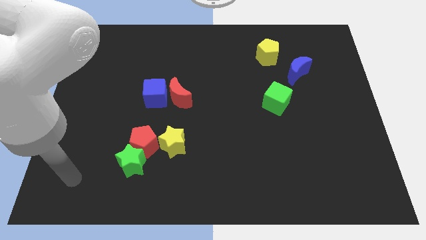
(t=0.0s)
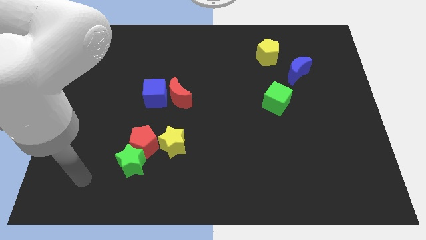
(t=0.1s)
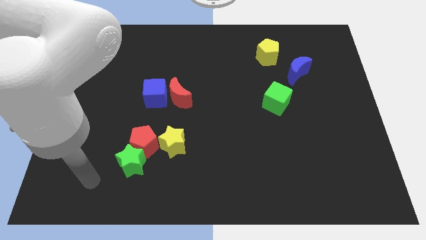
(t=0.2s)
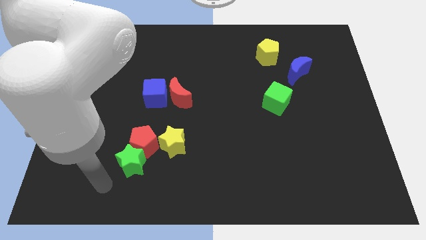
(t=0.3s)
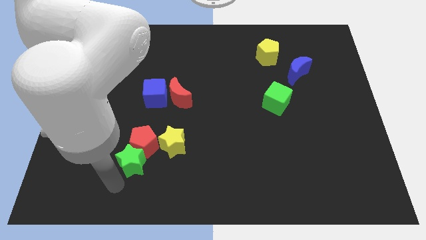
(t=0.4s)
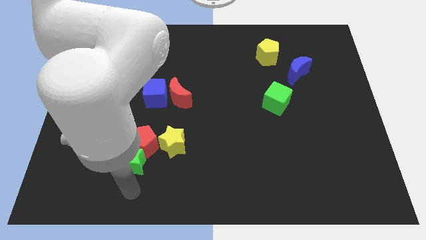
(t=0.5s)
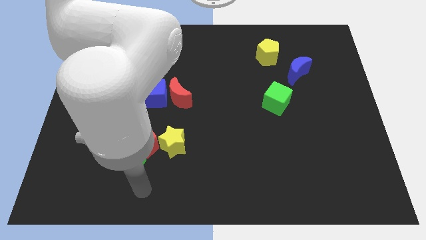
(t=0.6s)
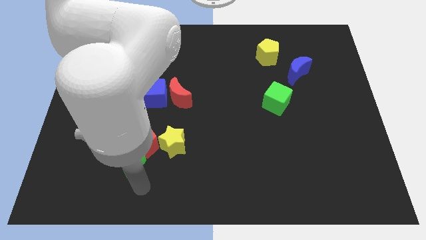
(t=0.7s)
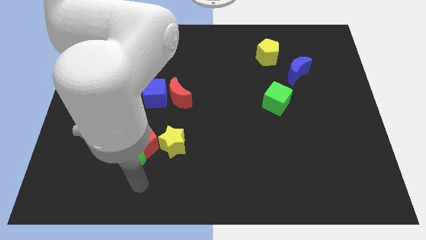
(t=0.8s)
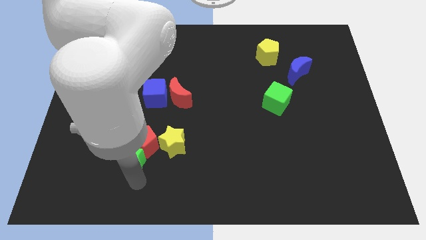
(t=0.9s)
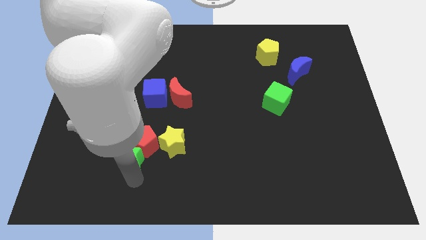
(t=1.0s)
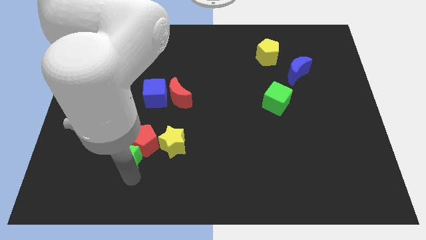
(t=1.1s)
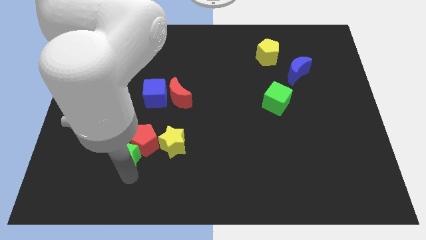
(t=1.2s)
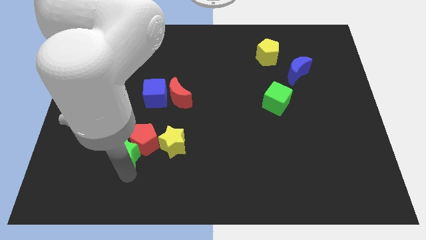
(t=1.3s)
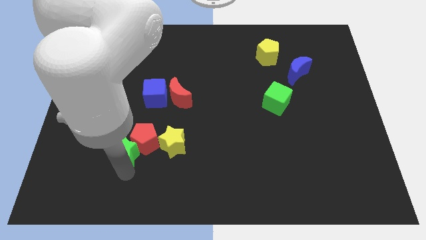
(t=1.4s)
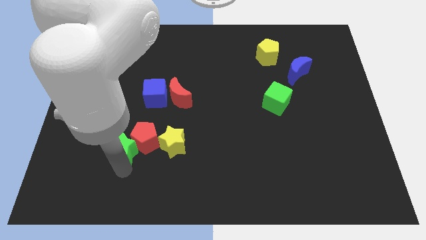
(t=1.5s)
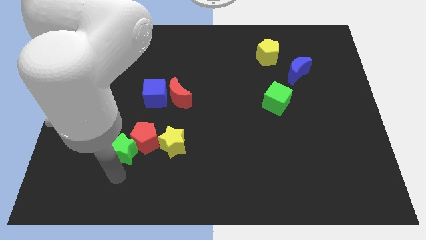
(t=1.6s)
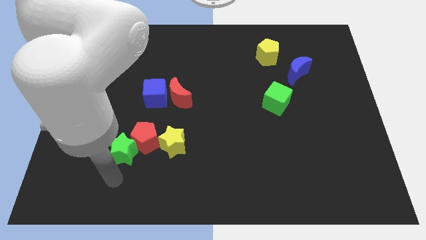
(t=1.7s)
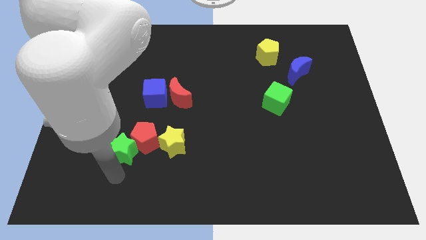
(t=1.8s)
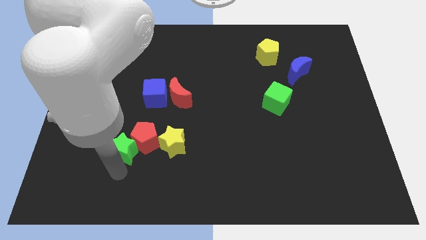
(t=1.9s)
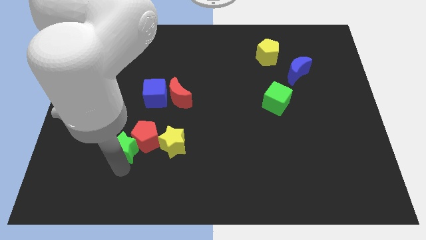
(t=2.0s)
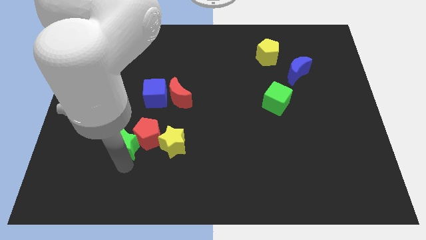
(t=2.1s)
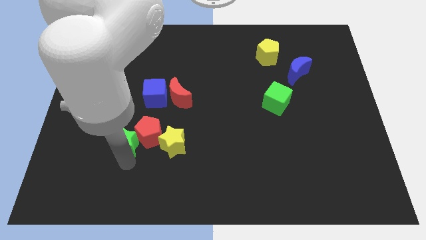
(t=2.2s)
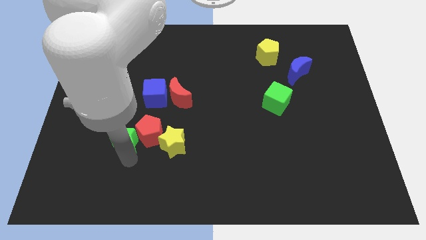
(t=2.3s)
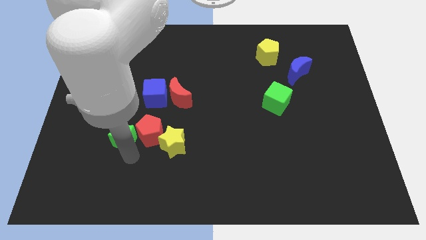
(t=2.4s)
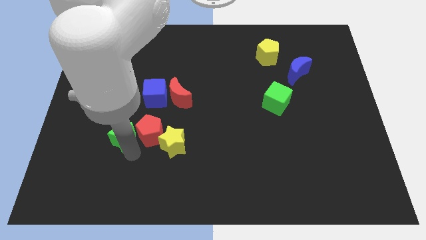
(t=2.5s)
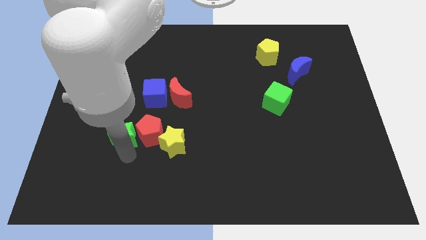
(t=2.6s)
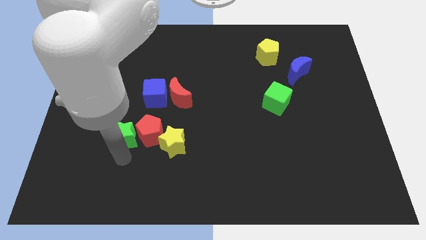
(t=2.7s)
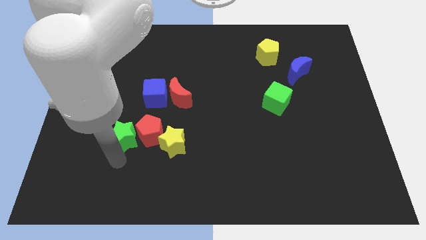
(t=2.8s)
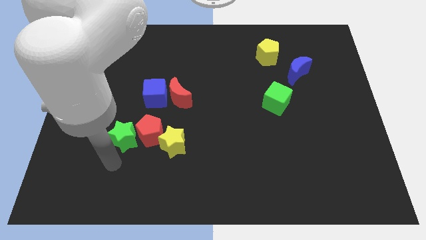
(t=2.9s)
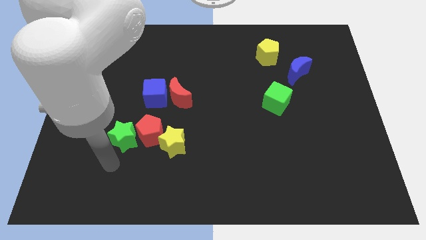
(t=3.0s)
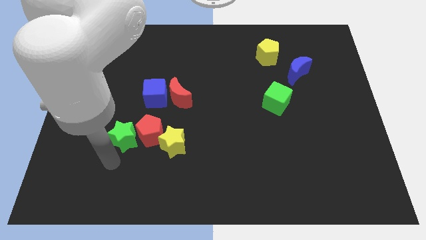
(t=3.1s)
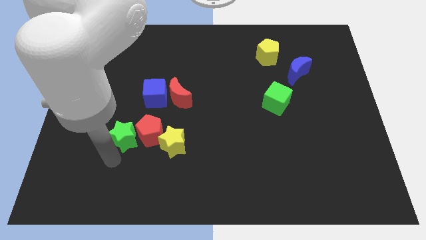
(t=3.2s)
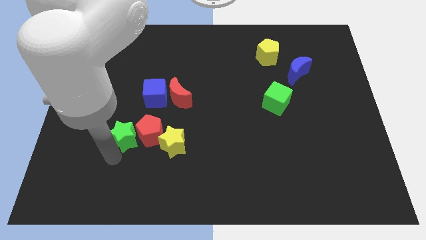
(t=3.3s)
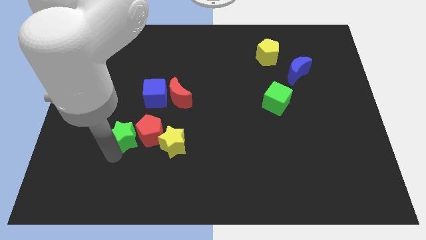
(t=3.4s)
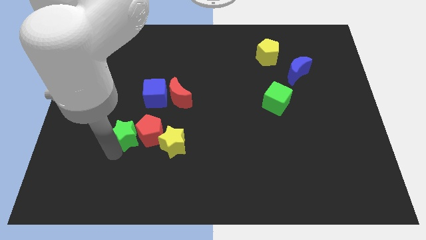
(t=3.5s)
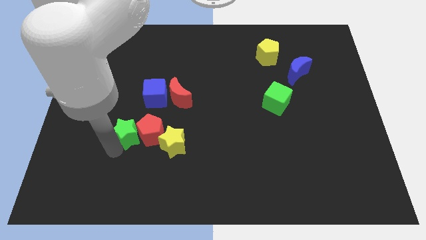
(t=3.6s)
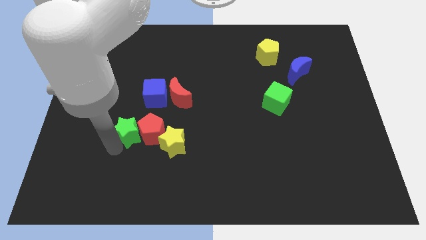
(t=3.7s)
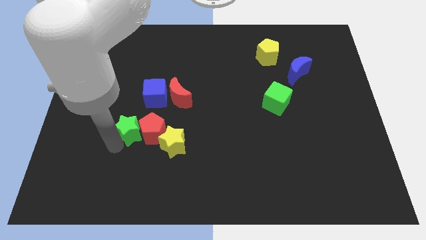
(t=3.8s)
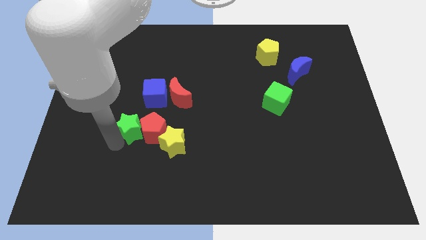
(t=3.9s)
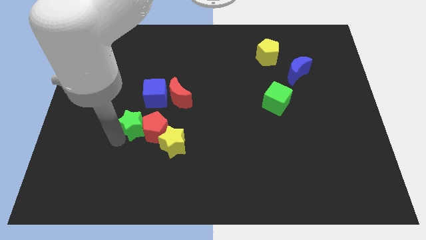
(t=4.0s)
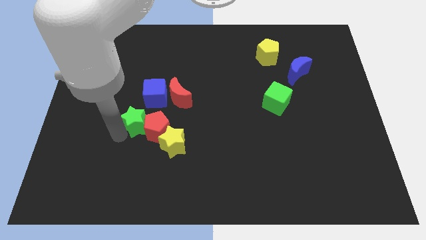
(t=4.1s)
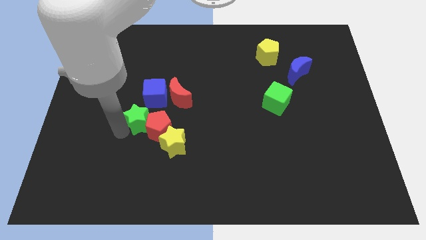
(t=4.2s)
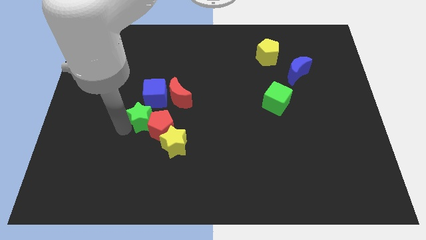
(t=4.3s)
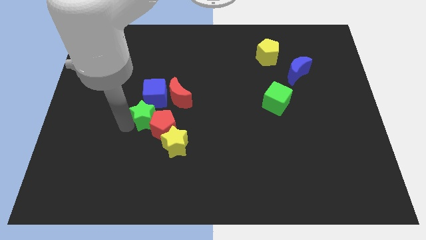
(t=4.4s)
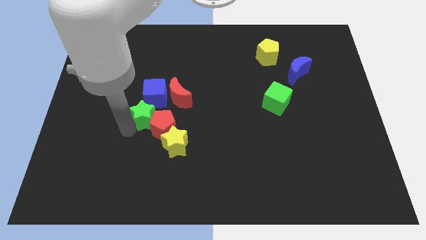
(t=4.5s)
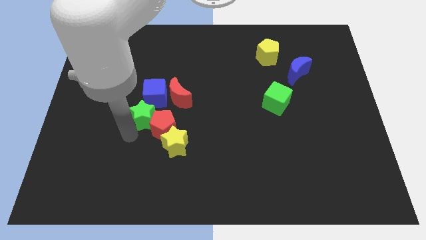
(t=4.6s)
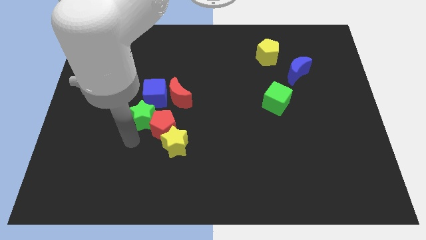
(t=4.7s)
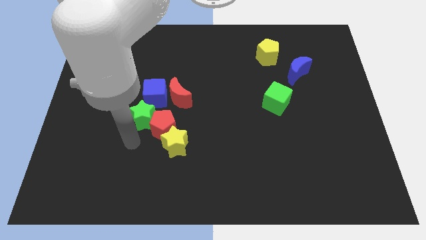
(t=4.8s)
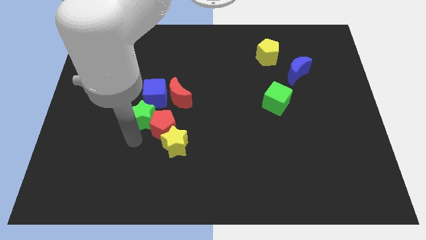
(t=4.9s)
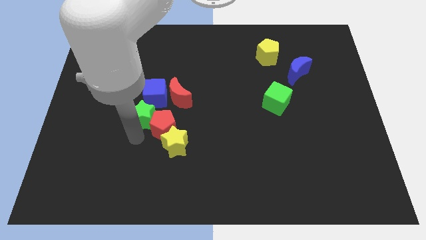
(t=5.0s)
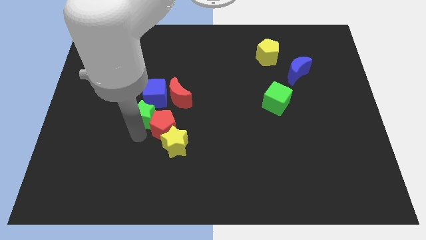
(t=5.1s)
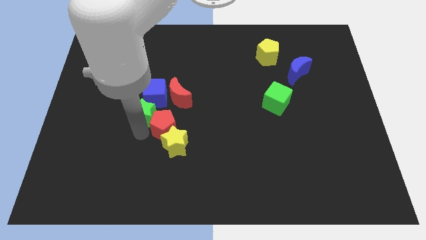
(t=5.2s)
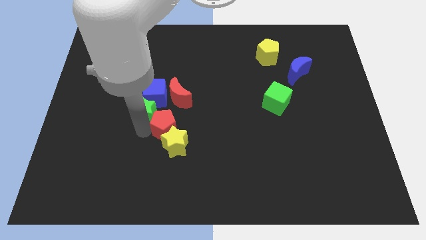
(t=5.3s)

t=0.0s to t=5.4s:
put the green star to the blue cube

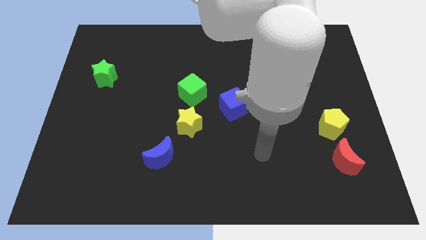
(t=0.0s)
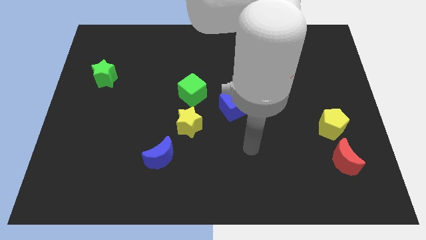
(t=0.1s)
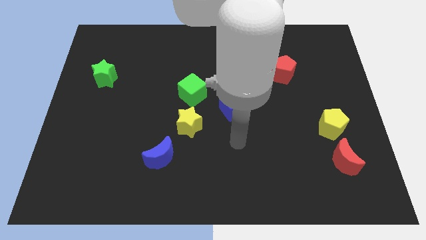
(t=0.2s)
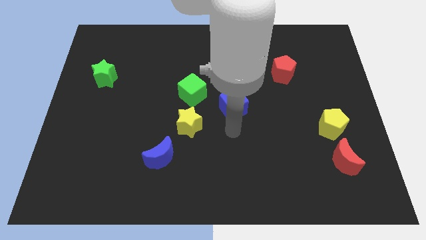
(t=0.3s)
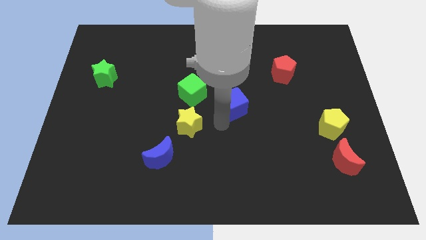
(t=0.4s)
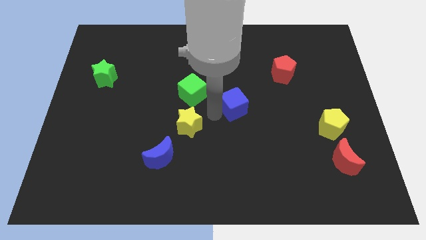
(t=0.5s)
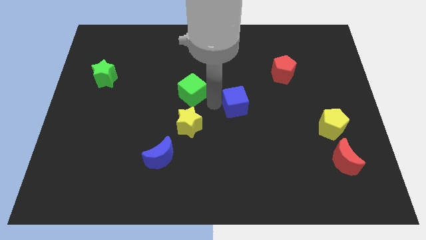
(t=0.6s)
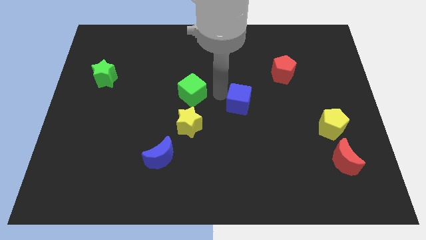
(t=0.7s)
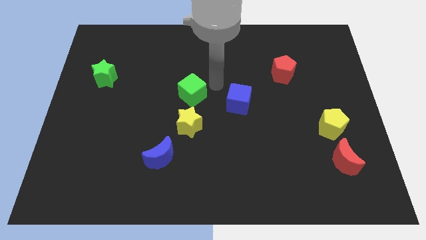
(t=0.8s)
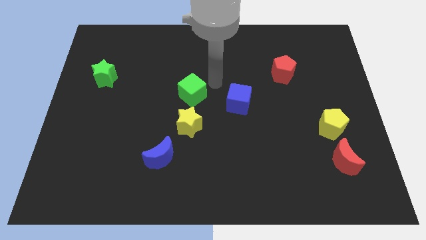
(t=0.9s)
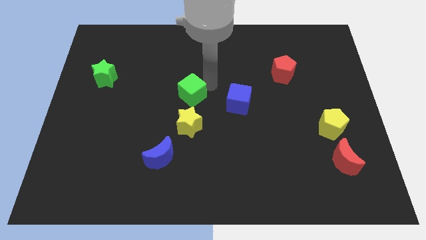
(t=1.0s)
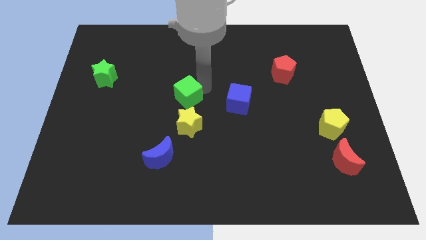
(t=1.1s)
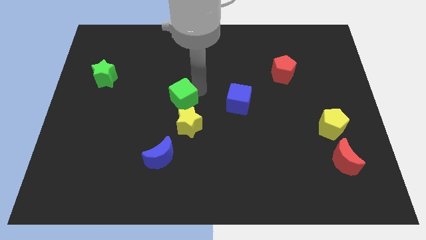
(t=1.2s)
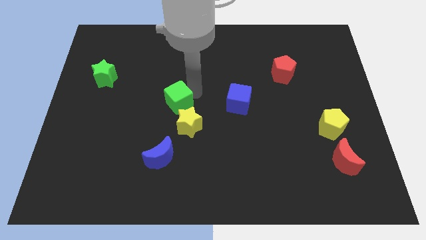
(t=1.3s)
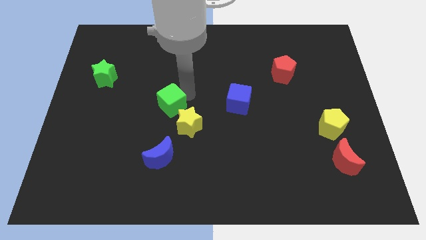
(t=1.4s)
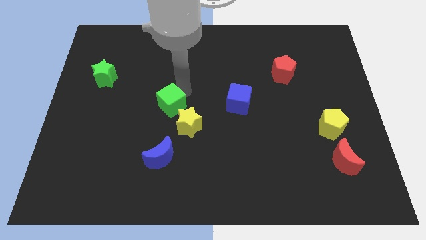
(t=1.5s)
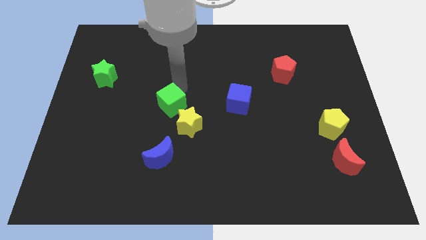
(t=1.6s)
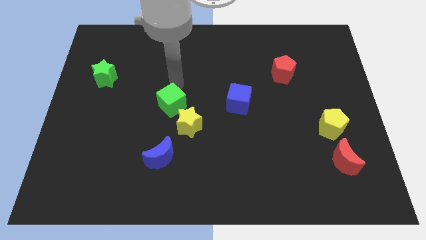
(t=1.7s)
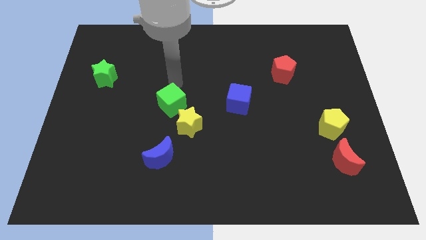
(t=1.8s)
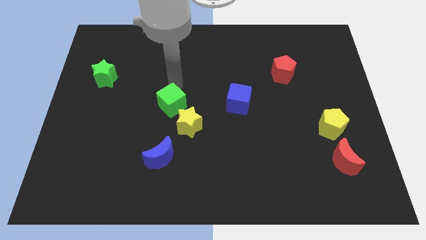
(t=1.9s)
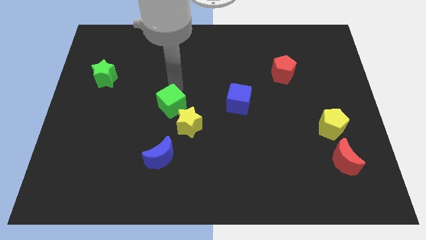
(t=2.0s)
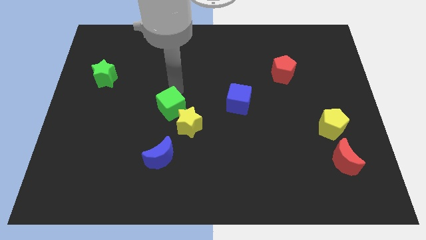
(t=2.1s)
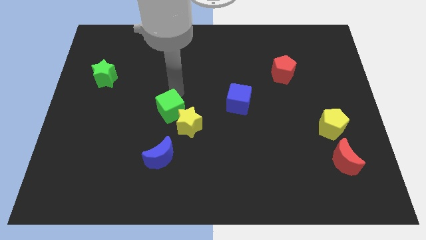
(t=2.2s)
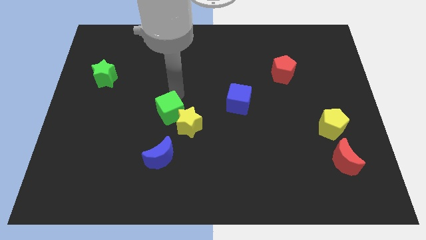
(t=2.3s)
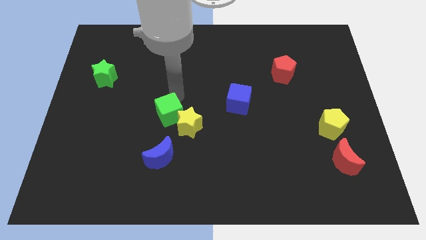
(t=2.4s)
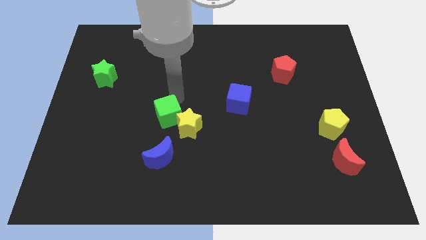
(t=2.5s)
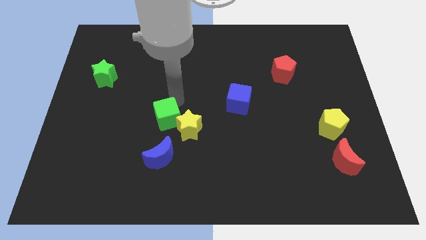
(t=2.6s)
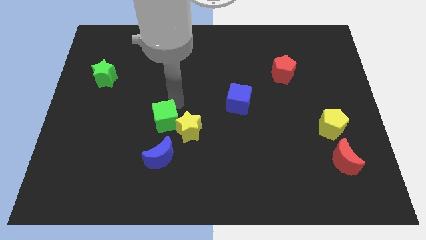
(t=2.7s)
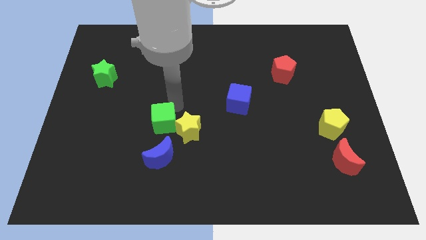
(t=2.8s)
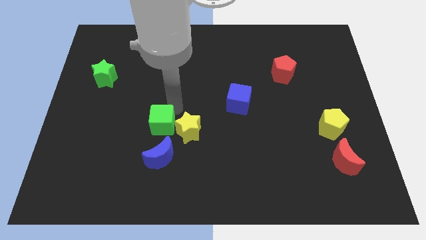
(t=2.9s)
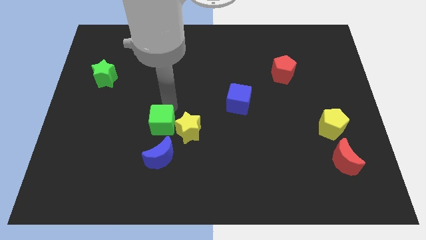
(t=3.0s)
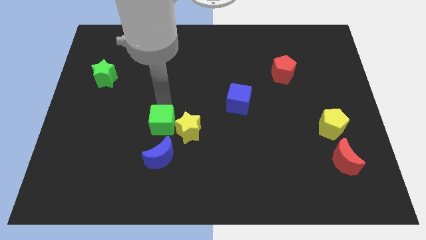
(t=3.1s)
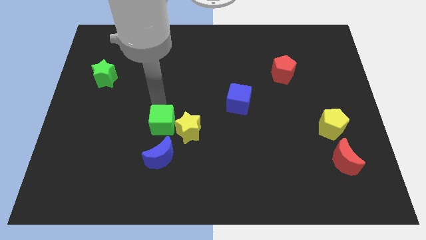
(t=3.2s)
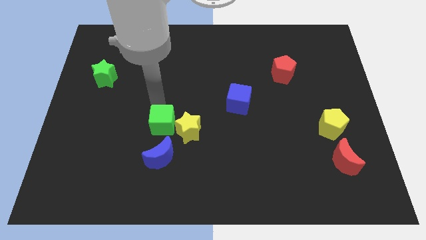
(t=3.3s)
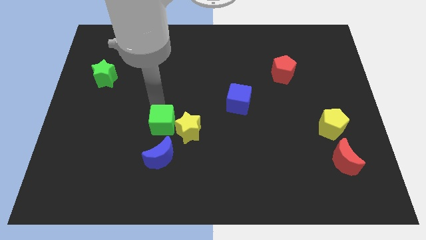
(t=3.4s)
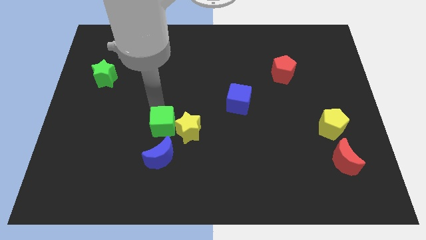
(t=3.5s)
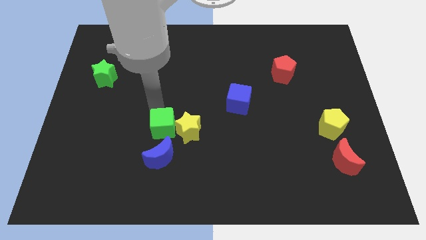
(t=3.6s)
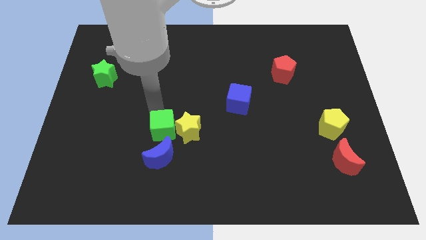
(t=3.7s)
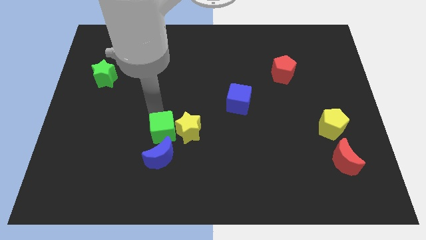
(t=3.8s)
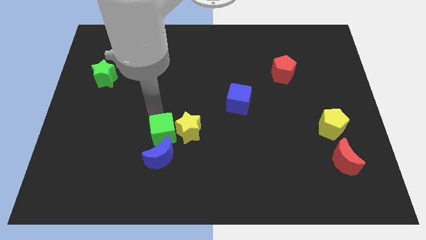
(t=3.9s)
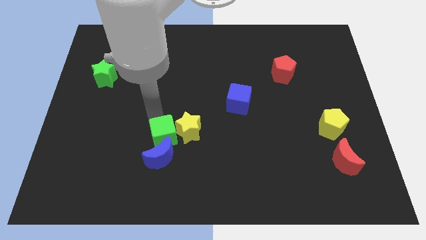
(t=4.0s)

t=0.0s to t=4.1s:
put the green cube close to the blue moon
